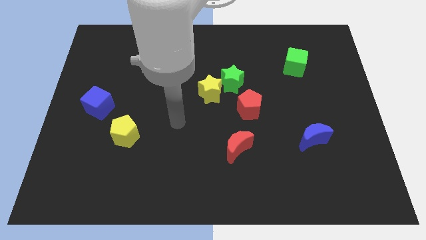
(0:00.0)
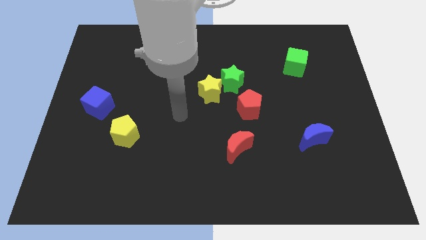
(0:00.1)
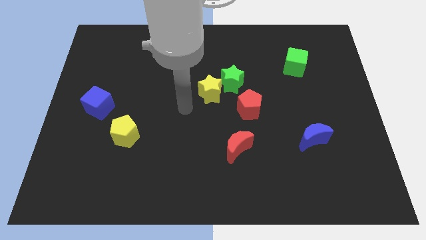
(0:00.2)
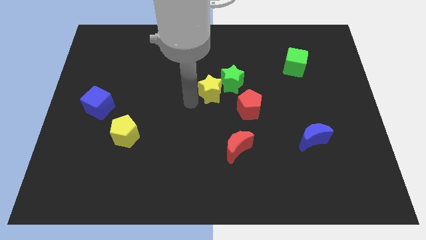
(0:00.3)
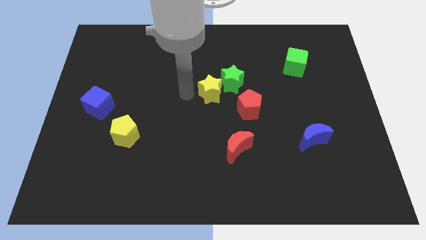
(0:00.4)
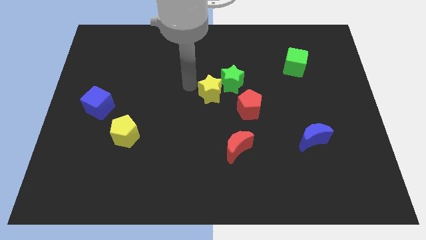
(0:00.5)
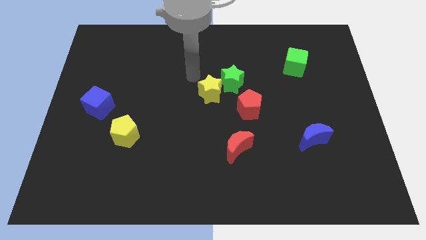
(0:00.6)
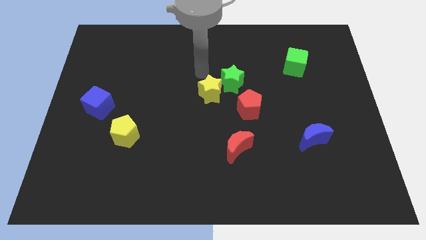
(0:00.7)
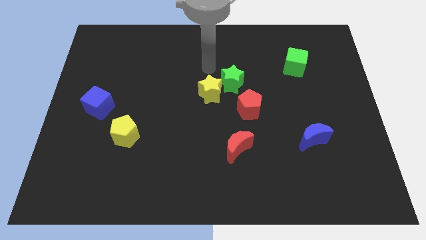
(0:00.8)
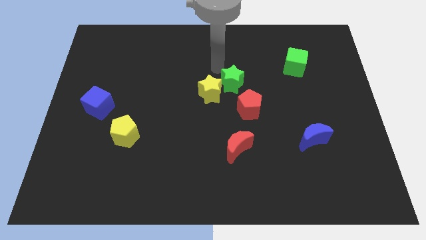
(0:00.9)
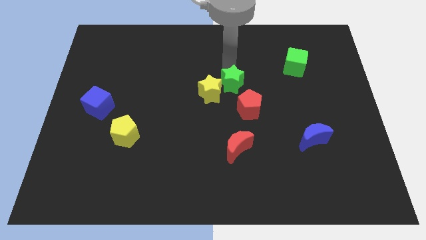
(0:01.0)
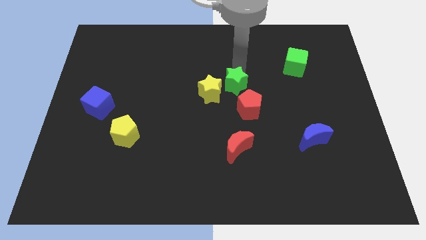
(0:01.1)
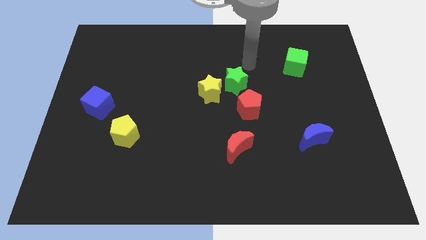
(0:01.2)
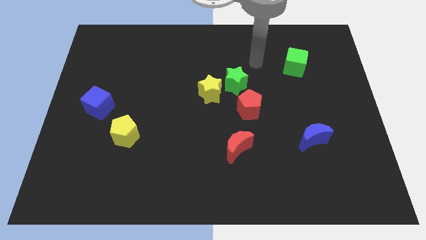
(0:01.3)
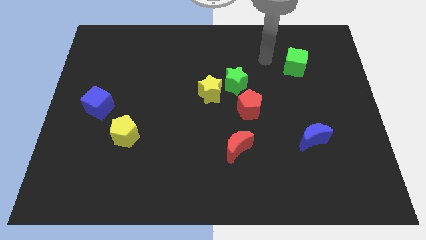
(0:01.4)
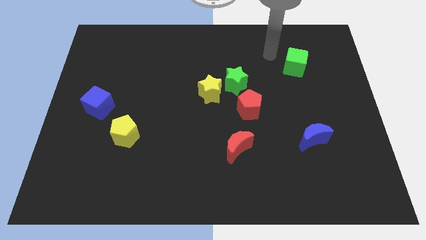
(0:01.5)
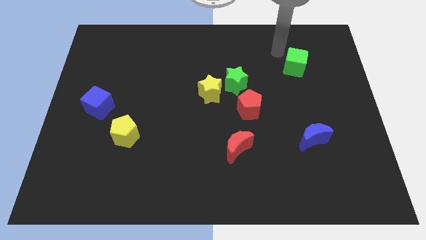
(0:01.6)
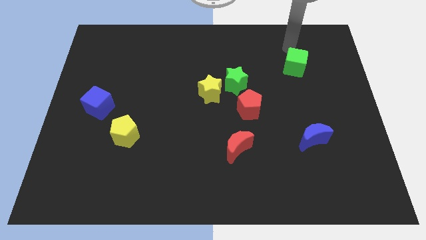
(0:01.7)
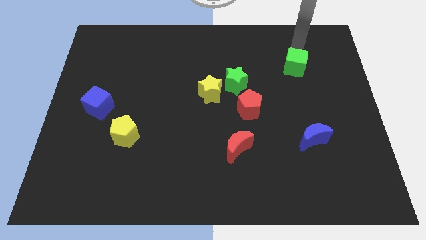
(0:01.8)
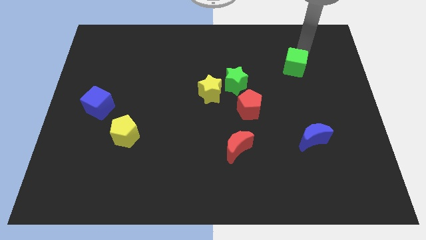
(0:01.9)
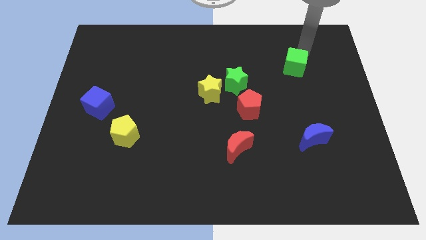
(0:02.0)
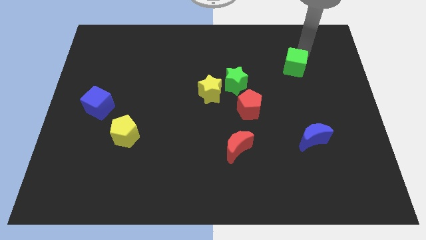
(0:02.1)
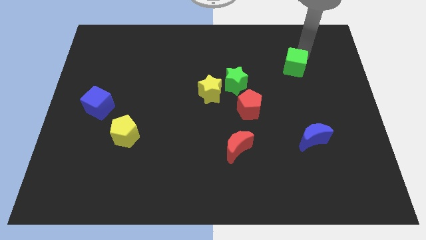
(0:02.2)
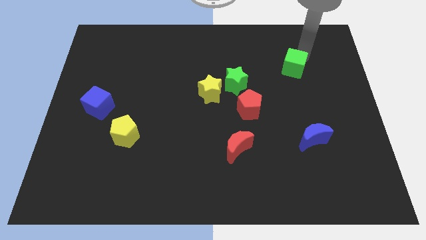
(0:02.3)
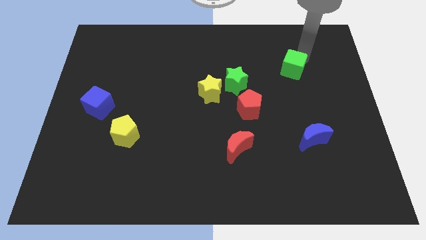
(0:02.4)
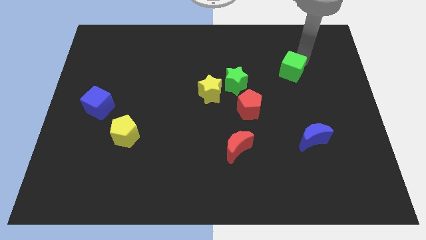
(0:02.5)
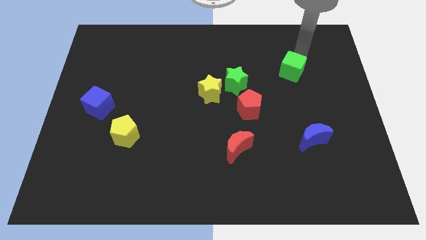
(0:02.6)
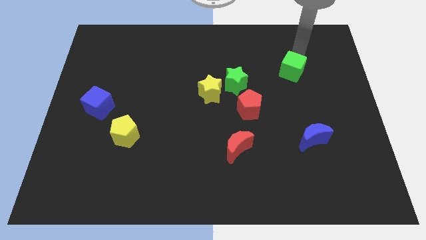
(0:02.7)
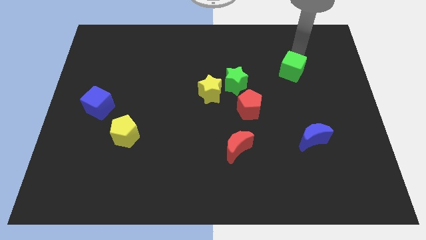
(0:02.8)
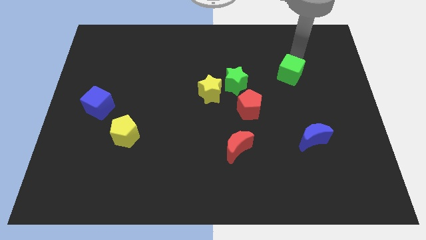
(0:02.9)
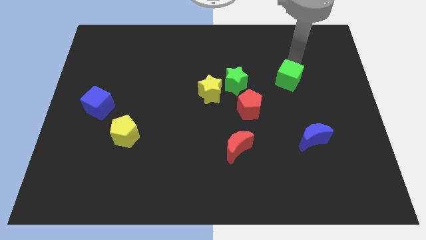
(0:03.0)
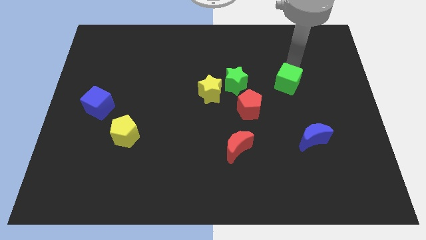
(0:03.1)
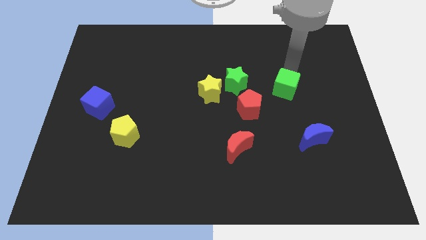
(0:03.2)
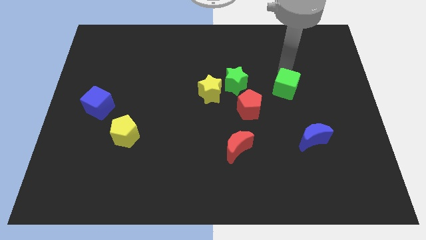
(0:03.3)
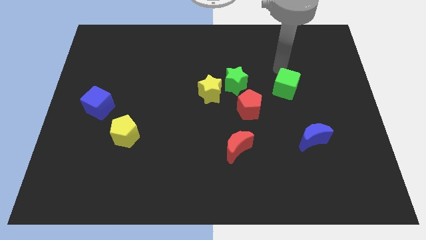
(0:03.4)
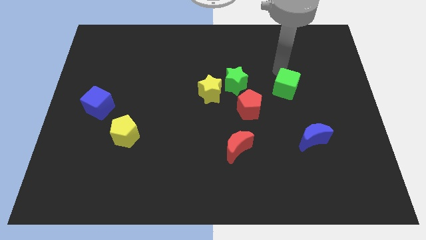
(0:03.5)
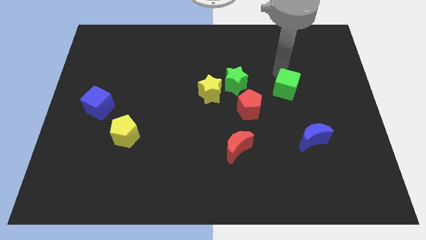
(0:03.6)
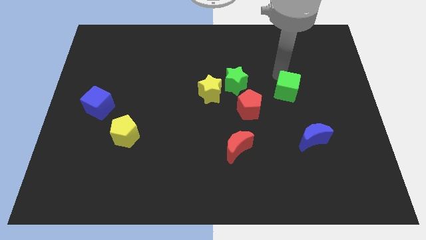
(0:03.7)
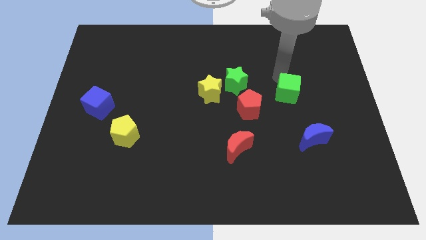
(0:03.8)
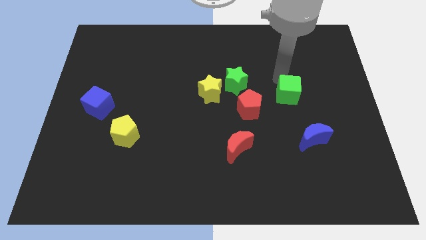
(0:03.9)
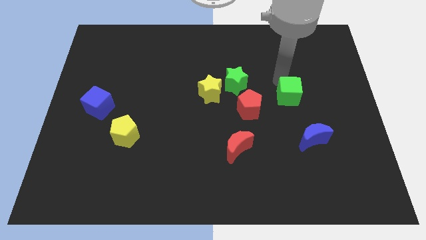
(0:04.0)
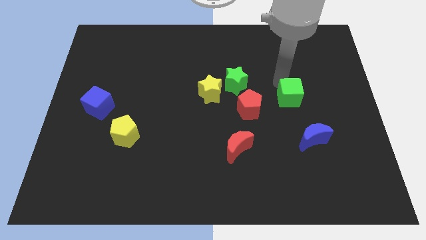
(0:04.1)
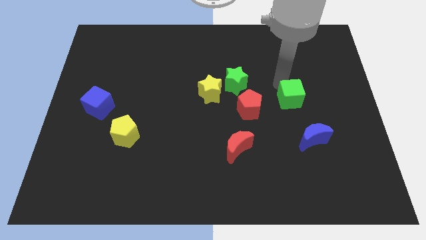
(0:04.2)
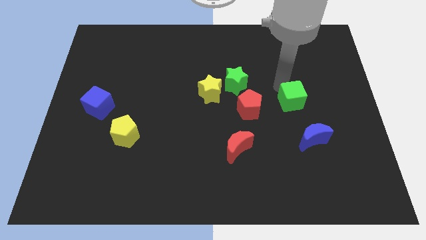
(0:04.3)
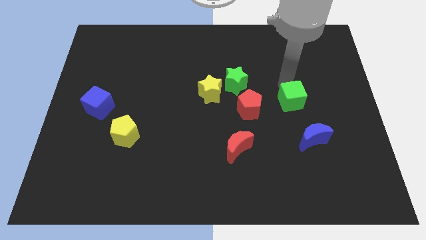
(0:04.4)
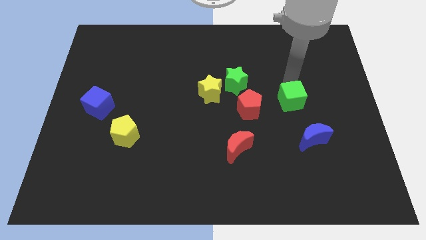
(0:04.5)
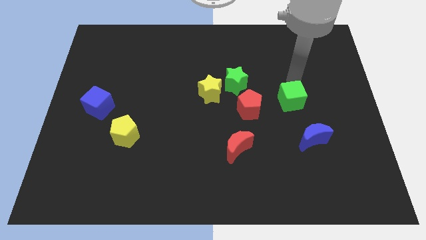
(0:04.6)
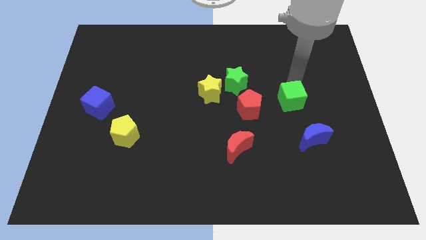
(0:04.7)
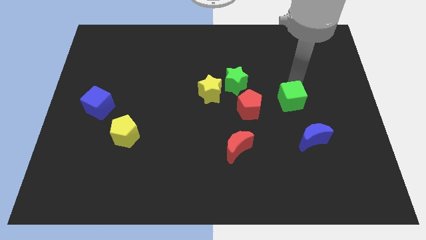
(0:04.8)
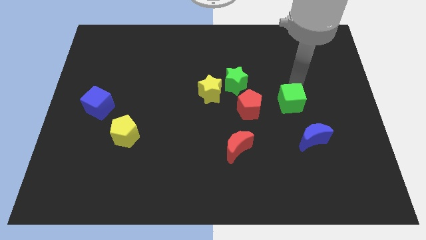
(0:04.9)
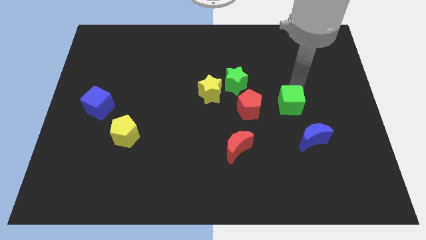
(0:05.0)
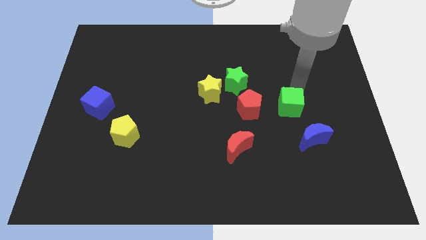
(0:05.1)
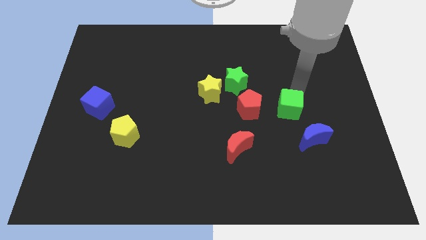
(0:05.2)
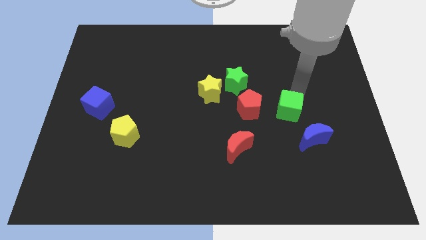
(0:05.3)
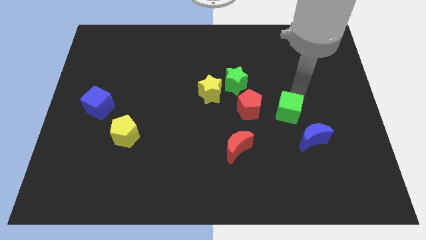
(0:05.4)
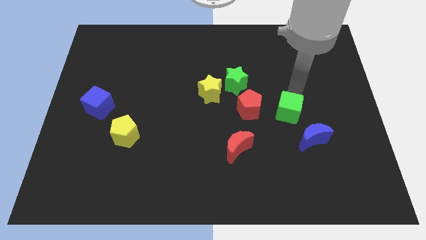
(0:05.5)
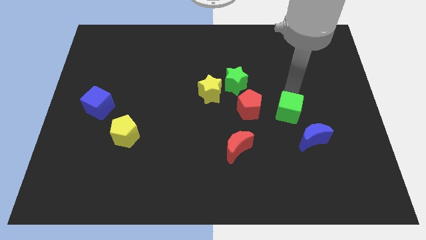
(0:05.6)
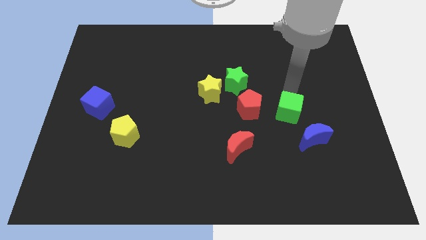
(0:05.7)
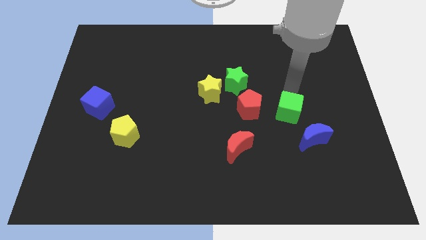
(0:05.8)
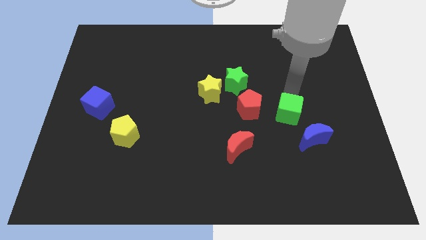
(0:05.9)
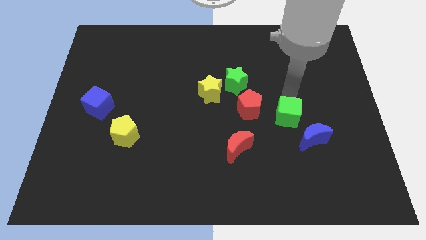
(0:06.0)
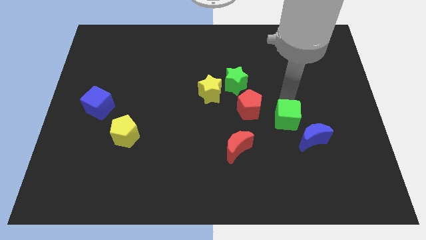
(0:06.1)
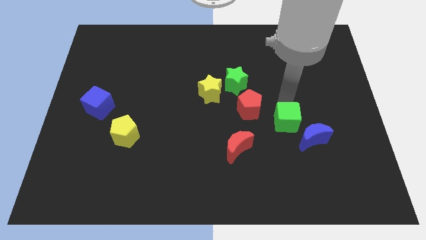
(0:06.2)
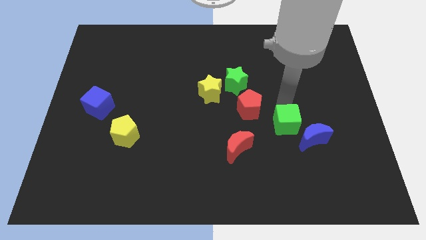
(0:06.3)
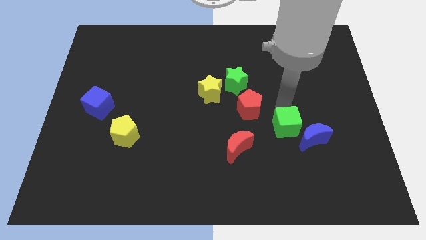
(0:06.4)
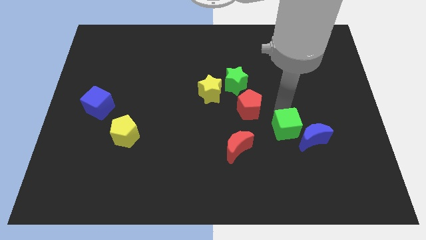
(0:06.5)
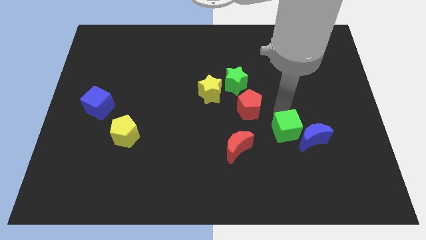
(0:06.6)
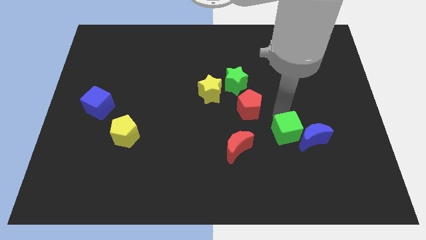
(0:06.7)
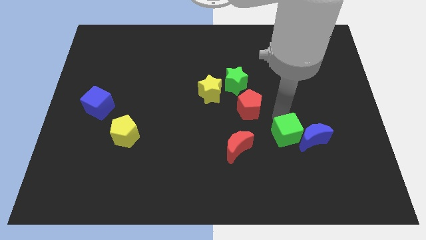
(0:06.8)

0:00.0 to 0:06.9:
push the green cube down

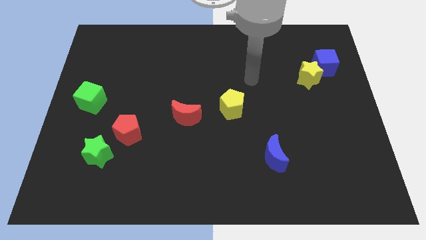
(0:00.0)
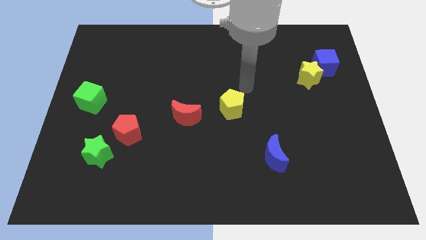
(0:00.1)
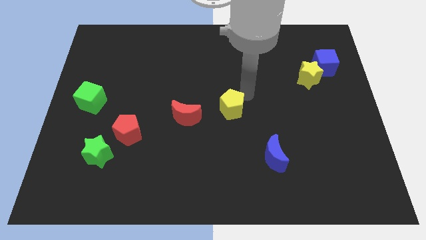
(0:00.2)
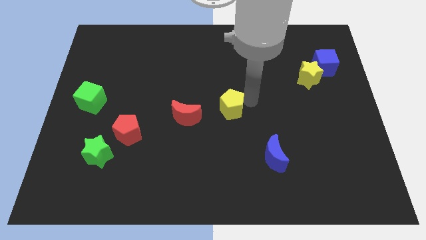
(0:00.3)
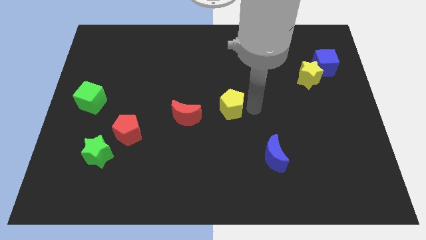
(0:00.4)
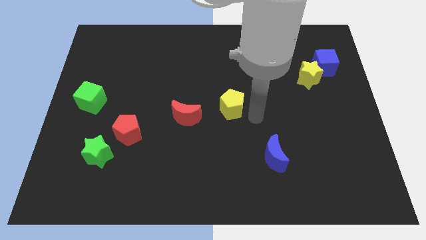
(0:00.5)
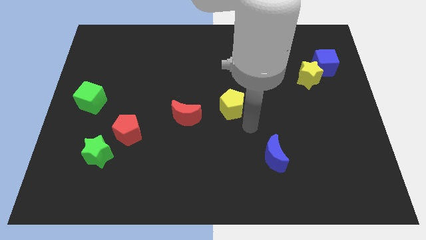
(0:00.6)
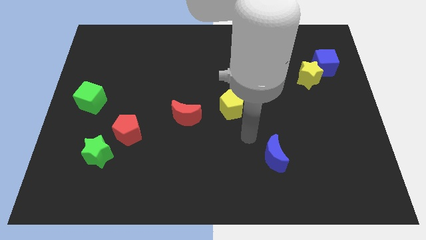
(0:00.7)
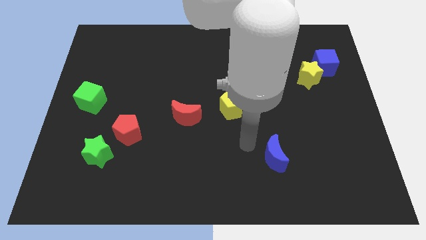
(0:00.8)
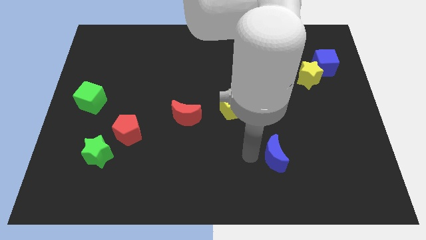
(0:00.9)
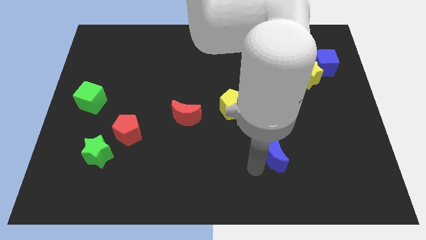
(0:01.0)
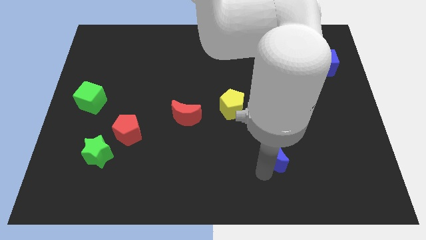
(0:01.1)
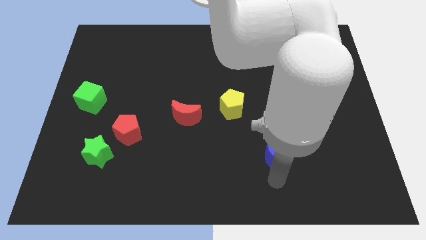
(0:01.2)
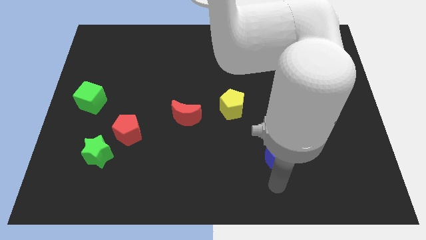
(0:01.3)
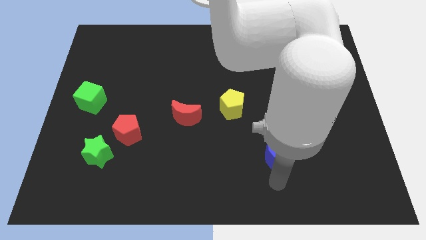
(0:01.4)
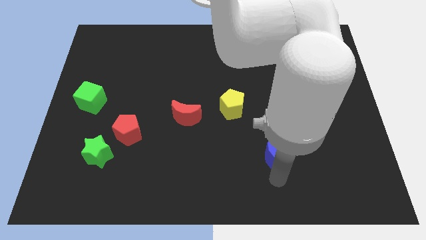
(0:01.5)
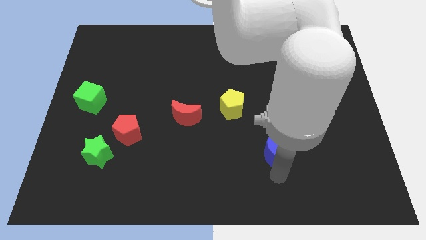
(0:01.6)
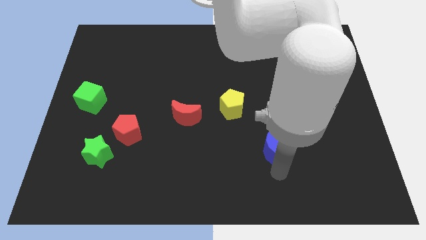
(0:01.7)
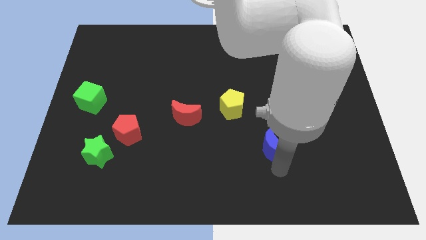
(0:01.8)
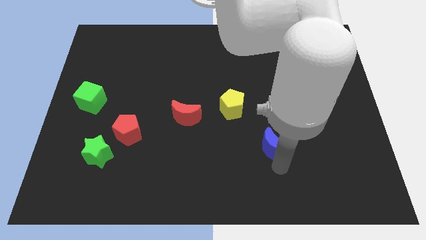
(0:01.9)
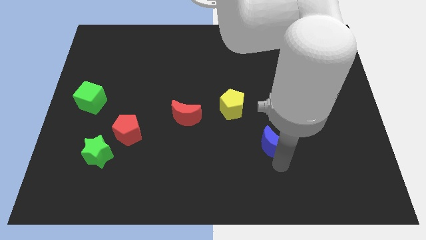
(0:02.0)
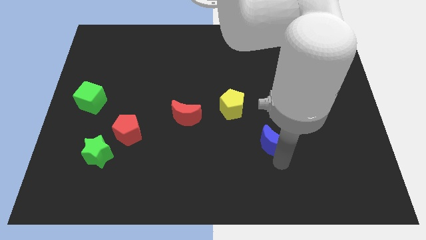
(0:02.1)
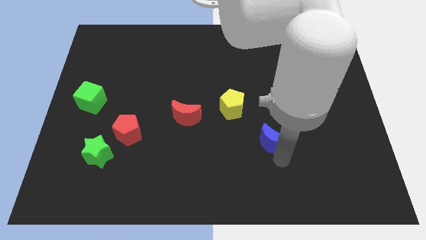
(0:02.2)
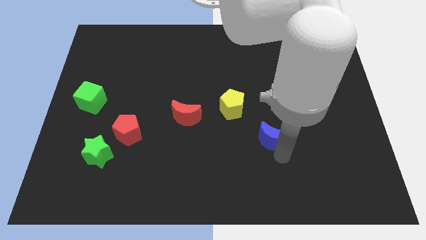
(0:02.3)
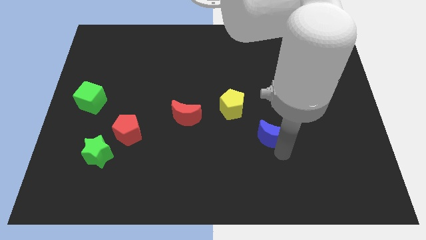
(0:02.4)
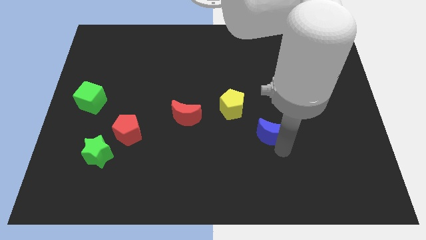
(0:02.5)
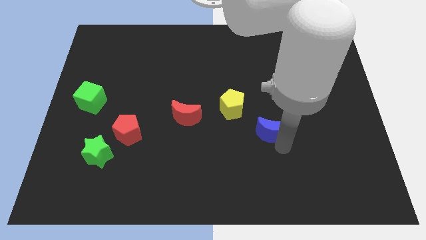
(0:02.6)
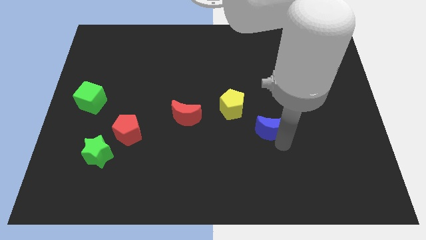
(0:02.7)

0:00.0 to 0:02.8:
slightly push the blue moon upwards
